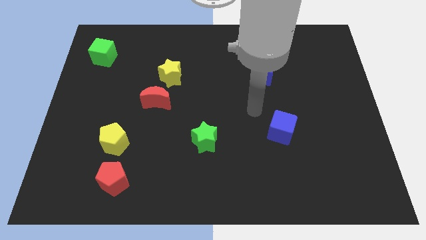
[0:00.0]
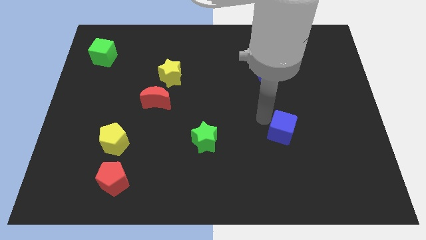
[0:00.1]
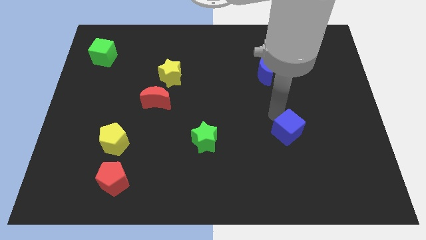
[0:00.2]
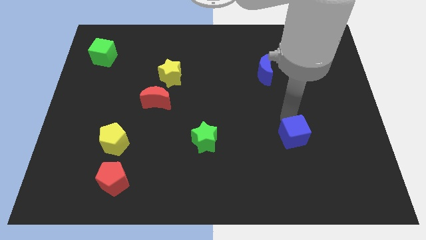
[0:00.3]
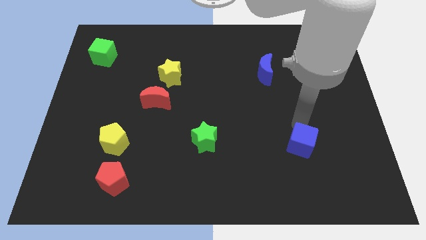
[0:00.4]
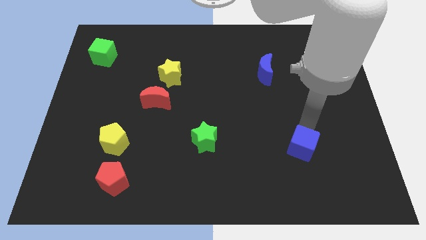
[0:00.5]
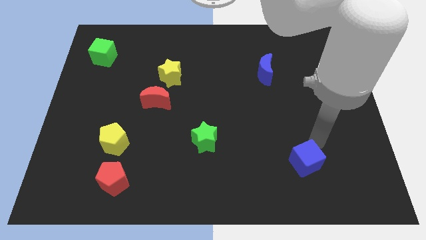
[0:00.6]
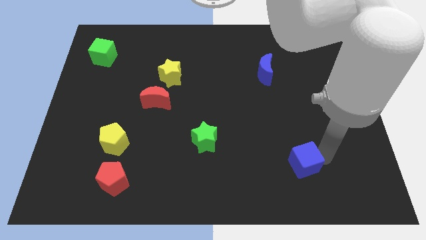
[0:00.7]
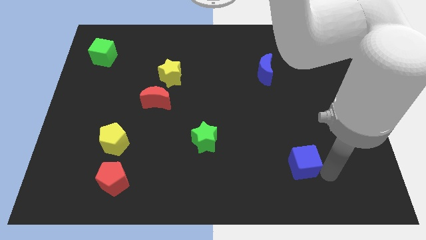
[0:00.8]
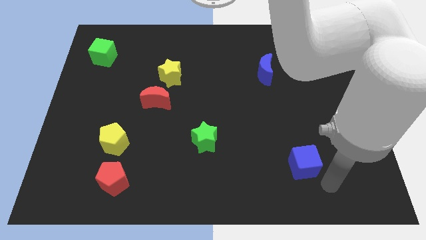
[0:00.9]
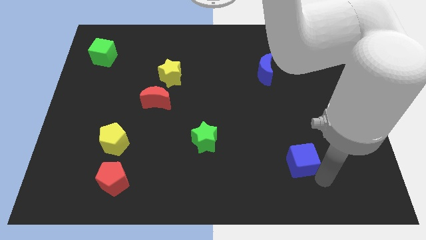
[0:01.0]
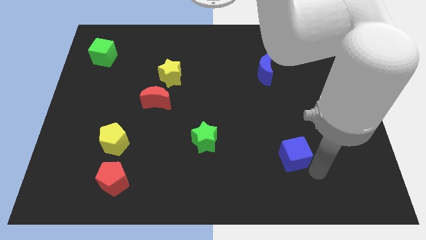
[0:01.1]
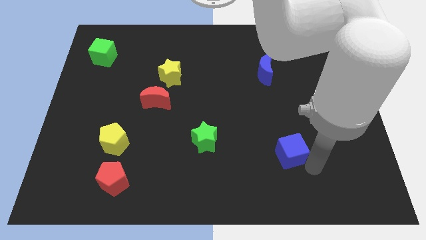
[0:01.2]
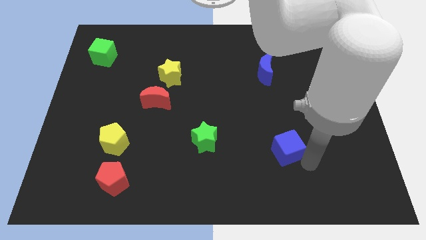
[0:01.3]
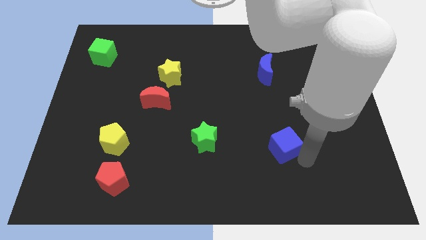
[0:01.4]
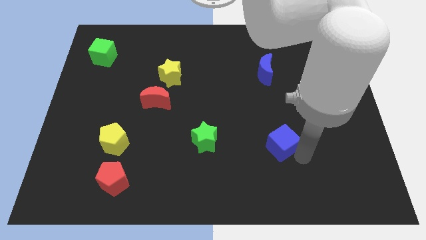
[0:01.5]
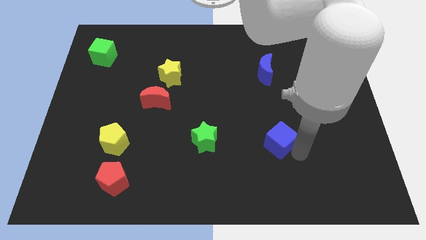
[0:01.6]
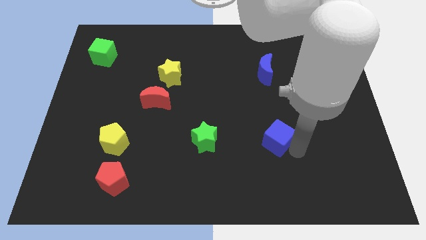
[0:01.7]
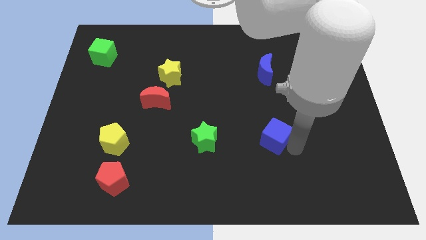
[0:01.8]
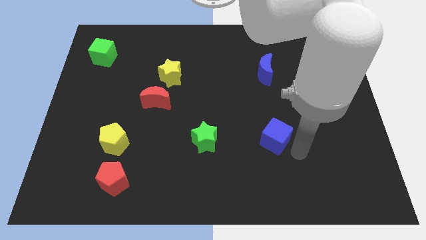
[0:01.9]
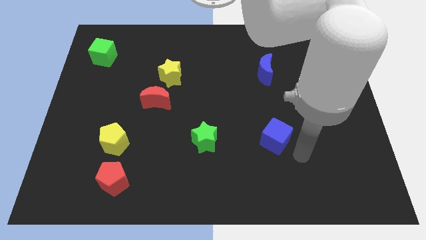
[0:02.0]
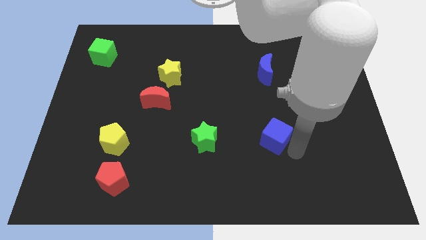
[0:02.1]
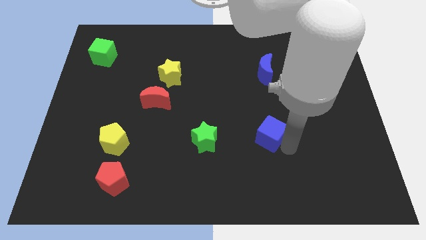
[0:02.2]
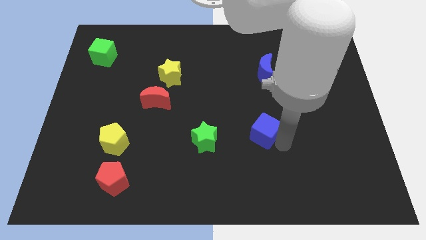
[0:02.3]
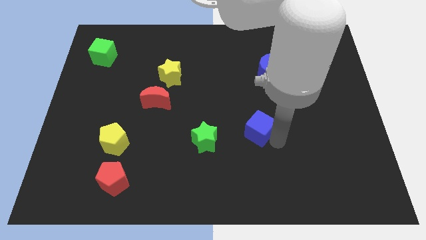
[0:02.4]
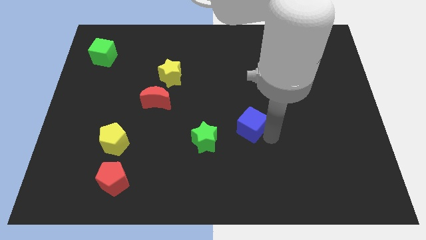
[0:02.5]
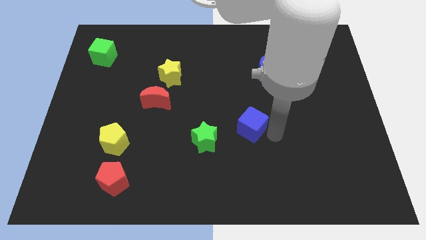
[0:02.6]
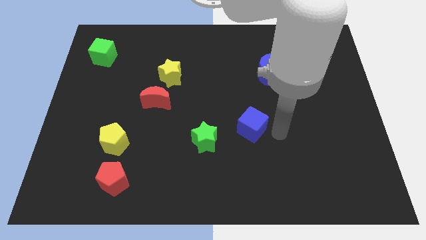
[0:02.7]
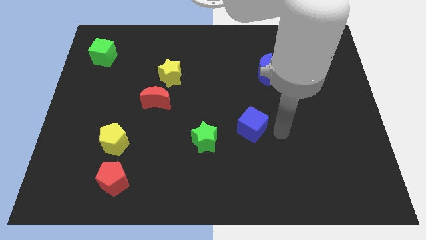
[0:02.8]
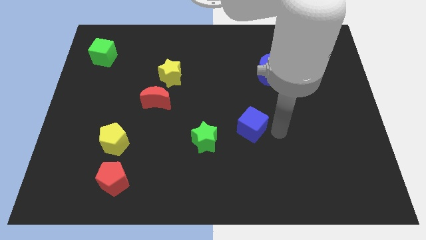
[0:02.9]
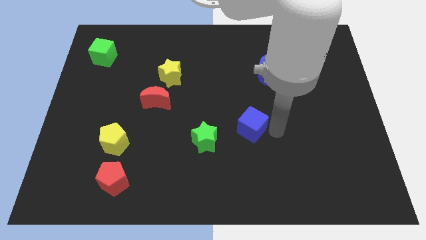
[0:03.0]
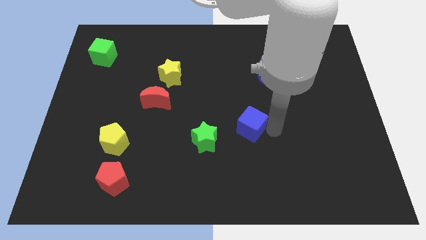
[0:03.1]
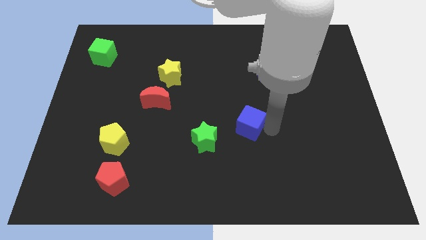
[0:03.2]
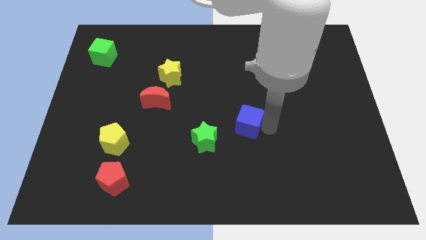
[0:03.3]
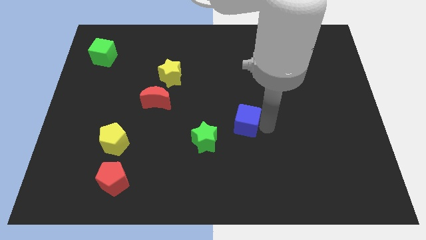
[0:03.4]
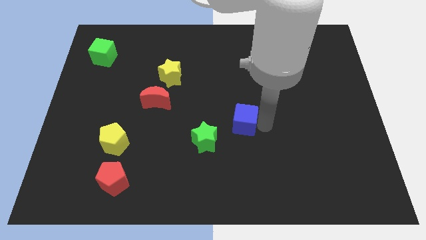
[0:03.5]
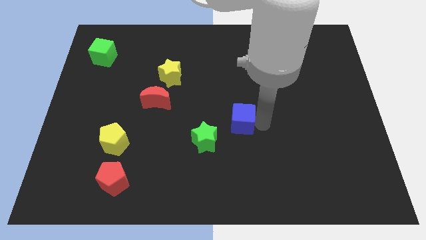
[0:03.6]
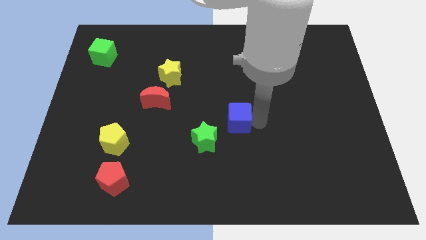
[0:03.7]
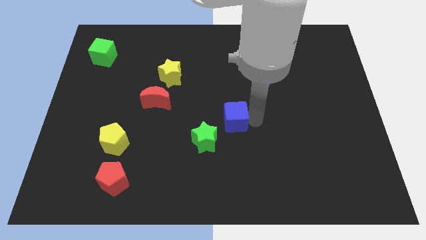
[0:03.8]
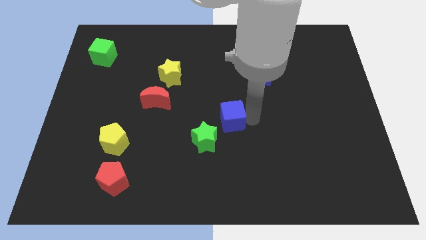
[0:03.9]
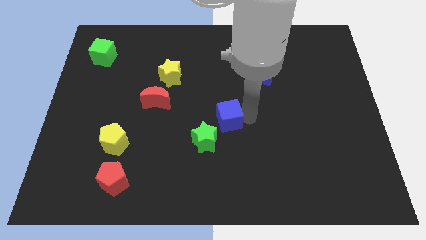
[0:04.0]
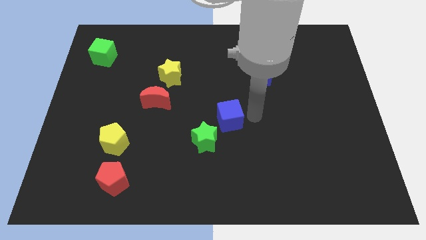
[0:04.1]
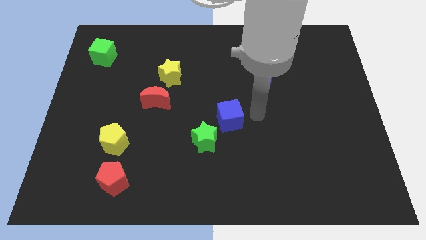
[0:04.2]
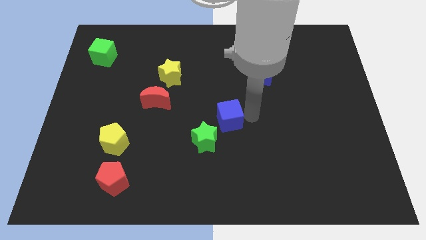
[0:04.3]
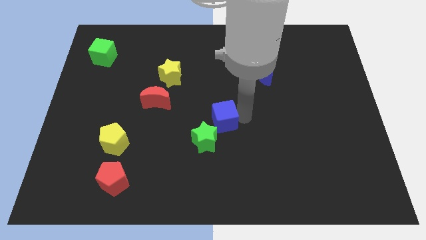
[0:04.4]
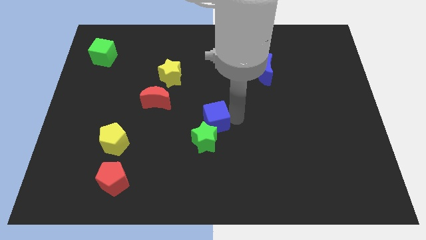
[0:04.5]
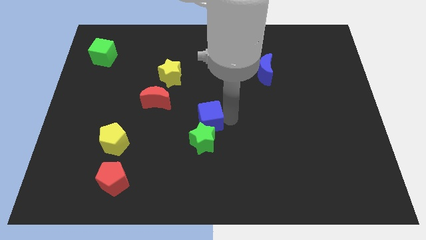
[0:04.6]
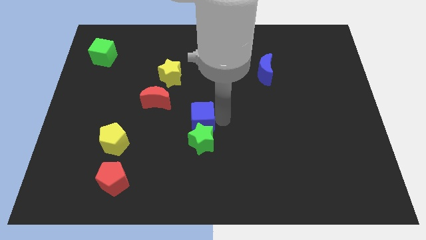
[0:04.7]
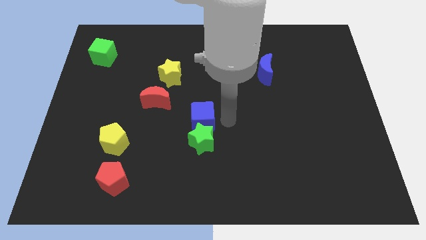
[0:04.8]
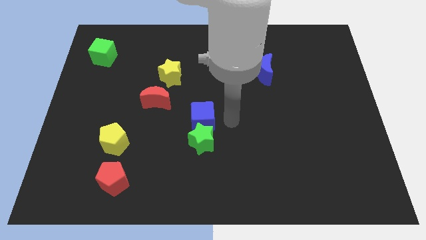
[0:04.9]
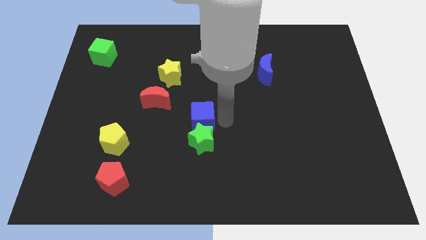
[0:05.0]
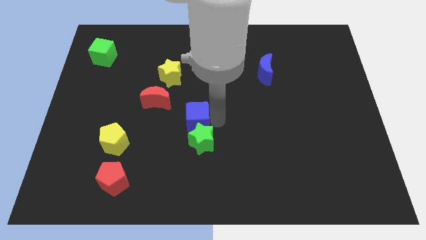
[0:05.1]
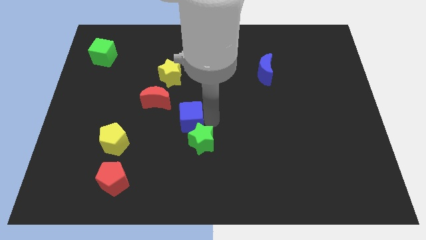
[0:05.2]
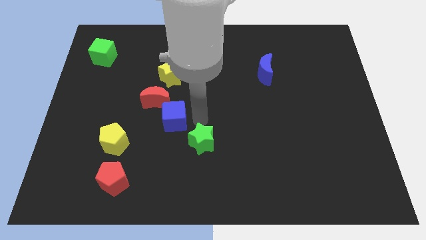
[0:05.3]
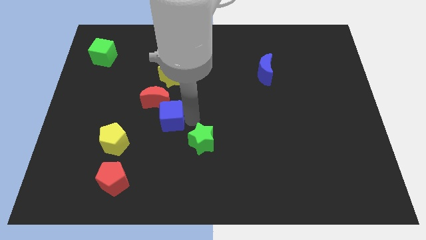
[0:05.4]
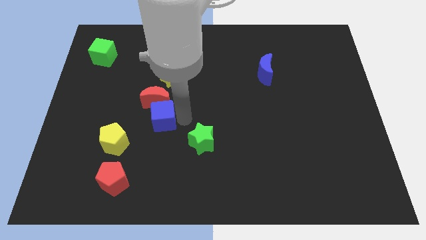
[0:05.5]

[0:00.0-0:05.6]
put the blue cube to the top right of the yellow pentagon
